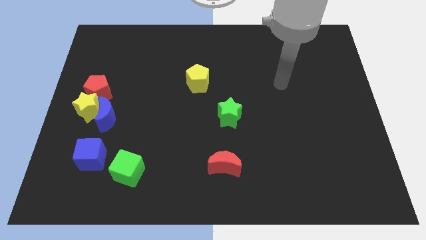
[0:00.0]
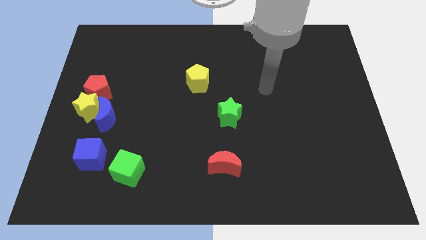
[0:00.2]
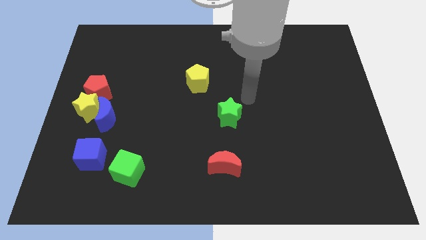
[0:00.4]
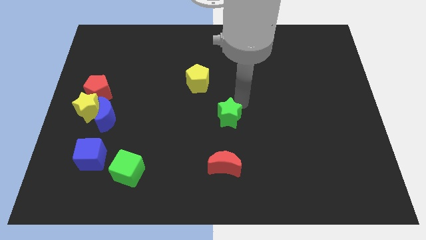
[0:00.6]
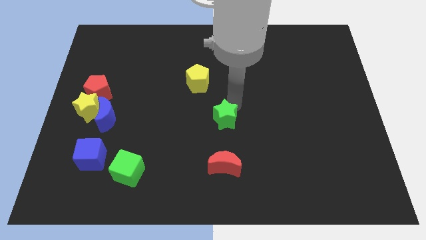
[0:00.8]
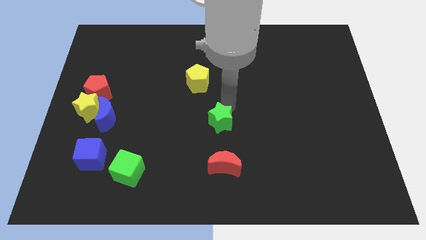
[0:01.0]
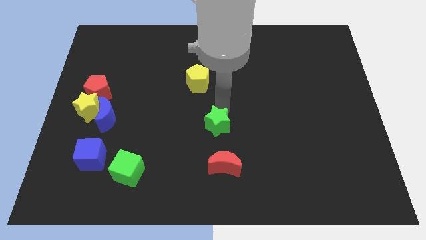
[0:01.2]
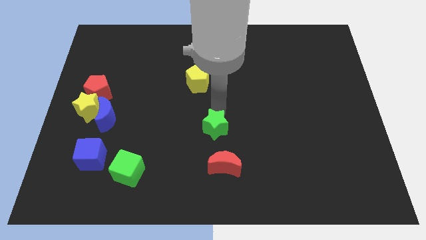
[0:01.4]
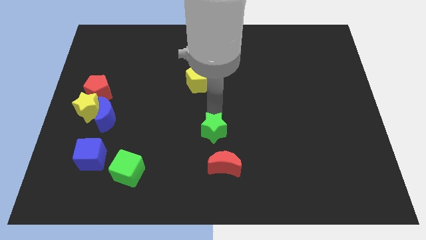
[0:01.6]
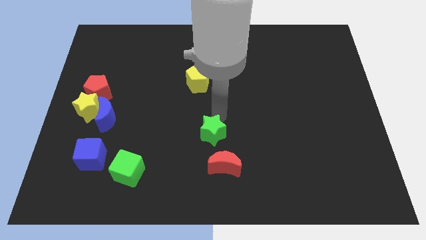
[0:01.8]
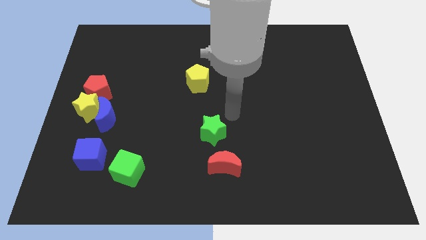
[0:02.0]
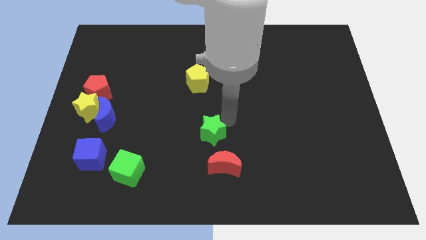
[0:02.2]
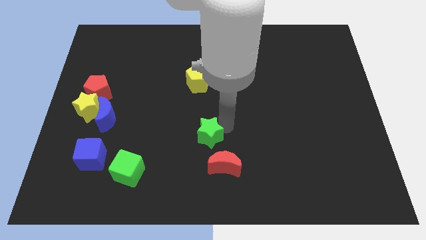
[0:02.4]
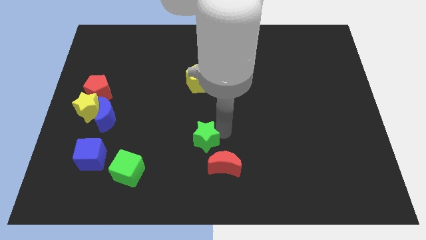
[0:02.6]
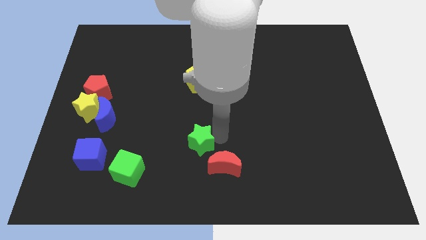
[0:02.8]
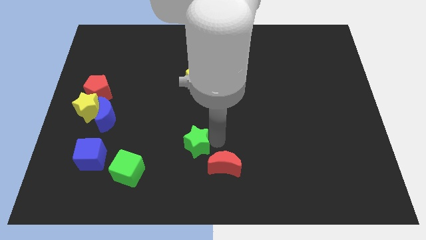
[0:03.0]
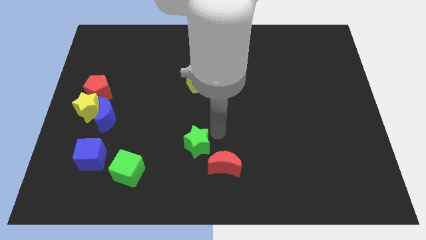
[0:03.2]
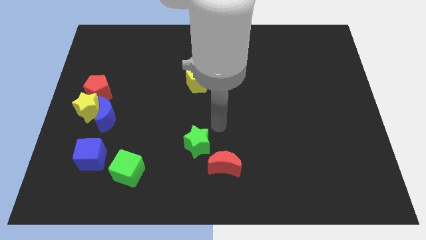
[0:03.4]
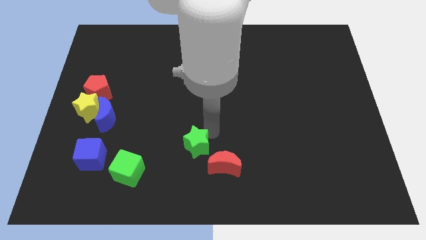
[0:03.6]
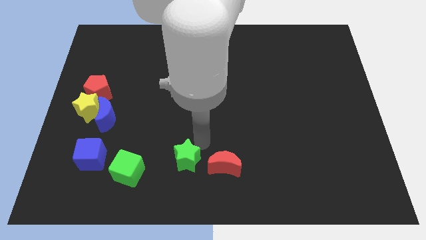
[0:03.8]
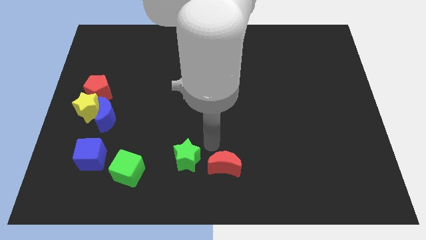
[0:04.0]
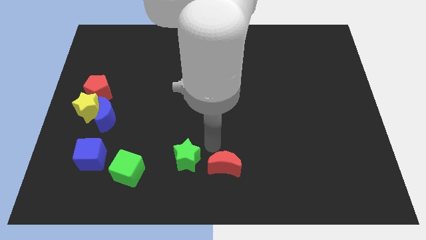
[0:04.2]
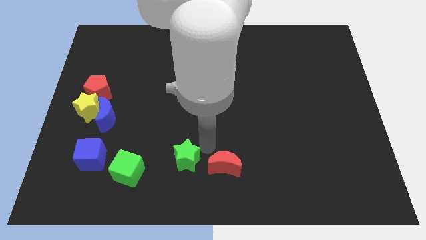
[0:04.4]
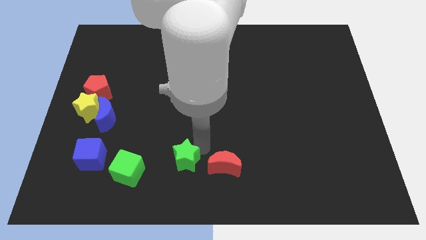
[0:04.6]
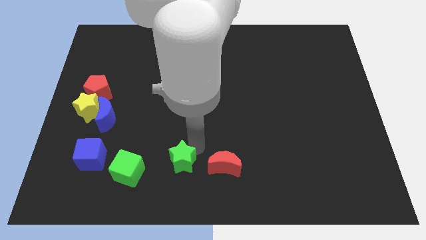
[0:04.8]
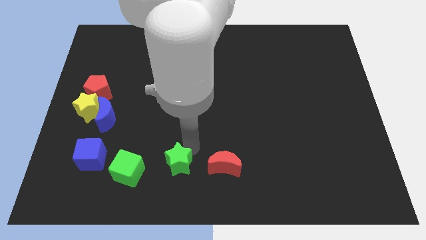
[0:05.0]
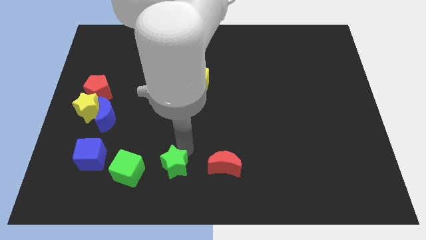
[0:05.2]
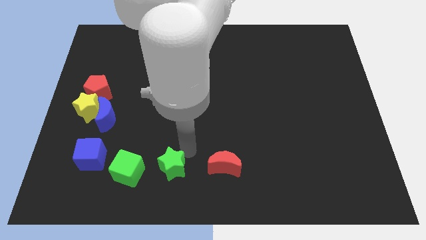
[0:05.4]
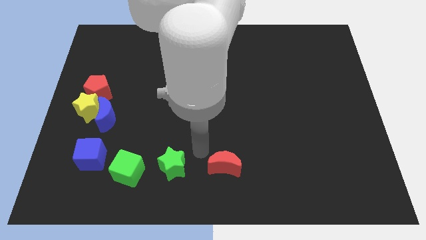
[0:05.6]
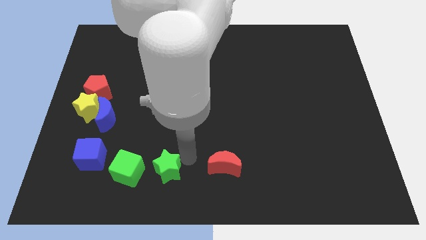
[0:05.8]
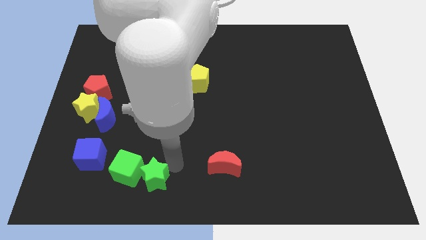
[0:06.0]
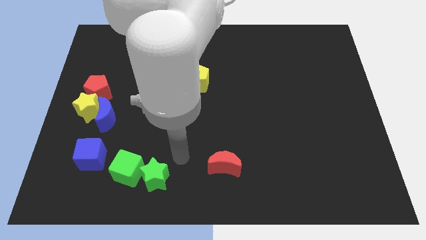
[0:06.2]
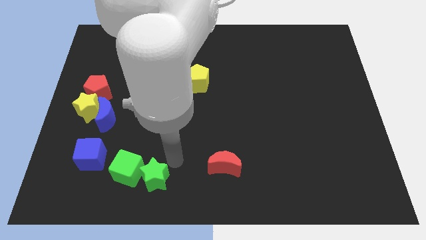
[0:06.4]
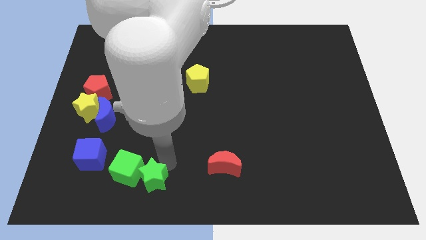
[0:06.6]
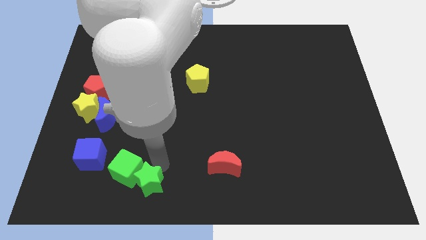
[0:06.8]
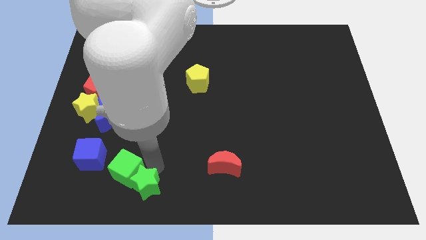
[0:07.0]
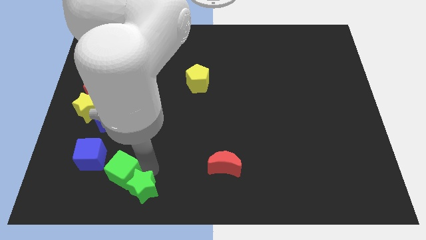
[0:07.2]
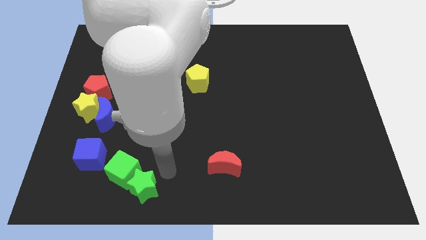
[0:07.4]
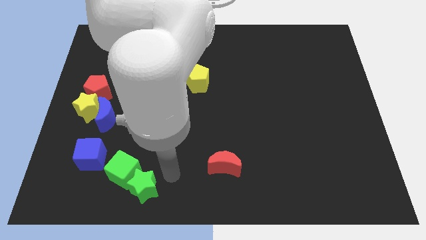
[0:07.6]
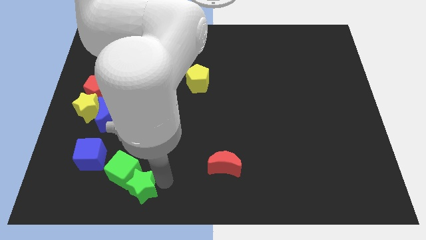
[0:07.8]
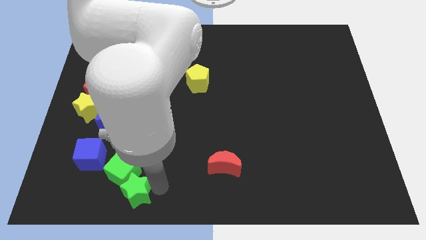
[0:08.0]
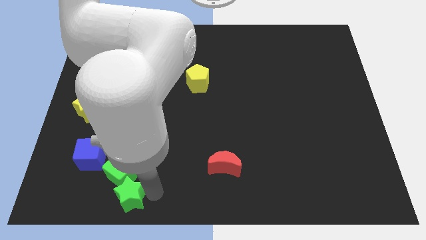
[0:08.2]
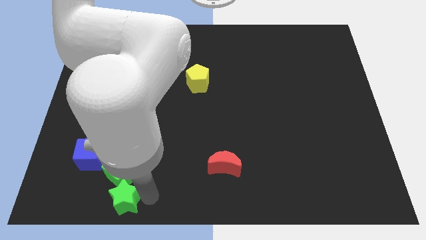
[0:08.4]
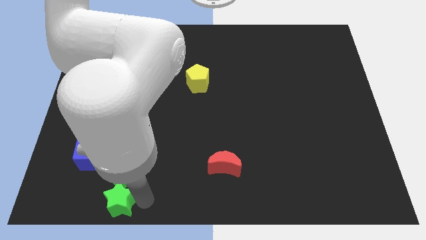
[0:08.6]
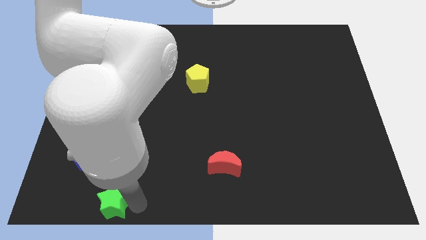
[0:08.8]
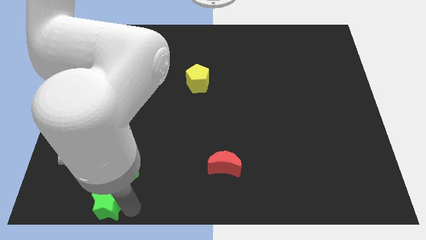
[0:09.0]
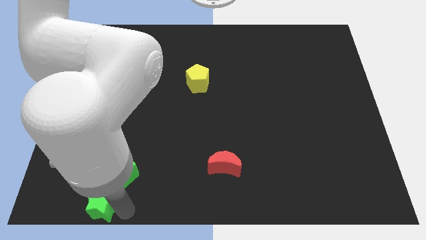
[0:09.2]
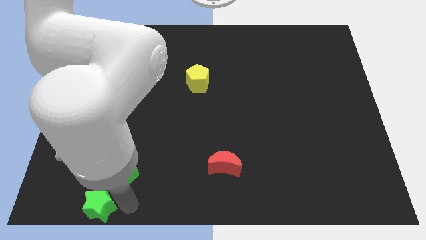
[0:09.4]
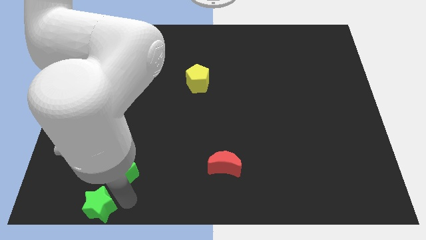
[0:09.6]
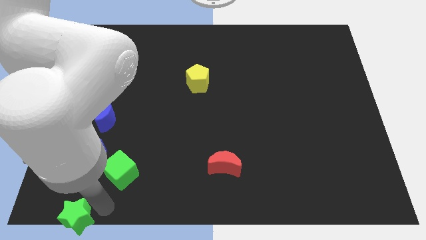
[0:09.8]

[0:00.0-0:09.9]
slide the green star to the lower left corner

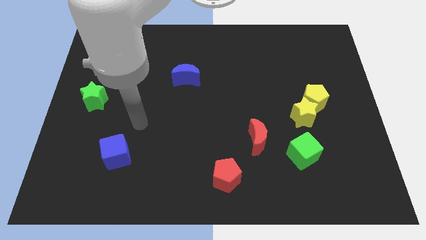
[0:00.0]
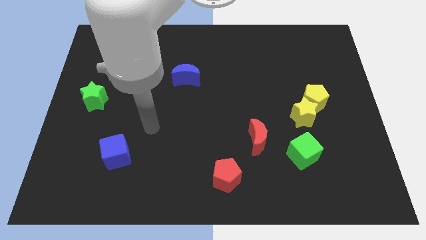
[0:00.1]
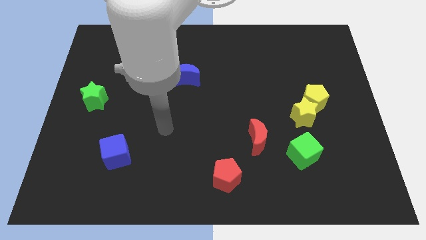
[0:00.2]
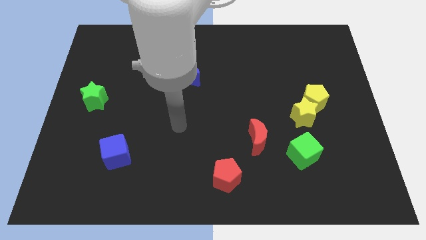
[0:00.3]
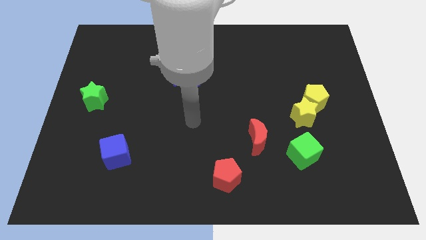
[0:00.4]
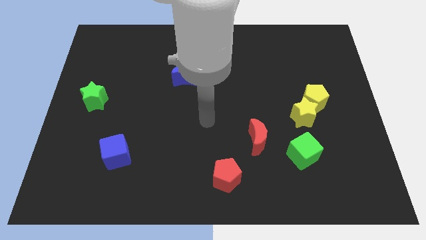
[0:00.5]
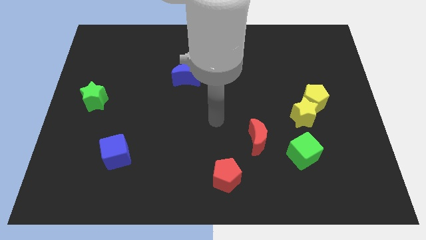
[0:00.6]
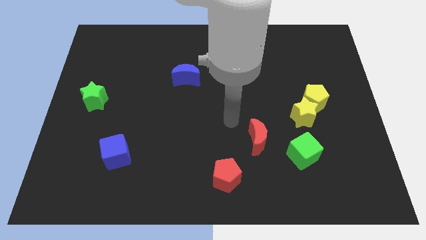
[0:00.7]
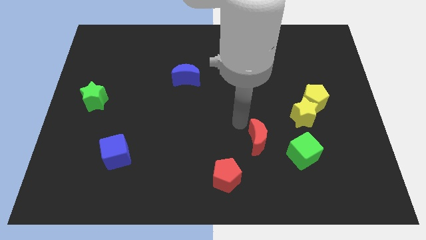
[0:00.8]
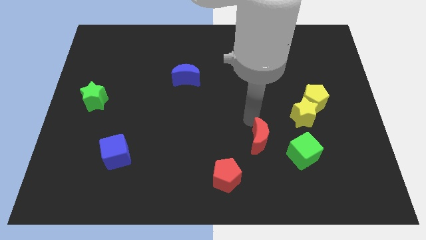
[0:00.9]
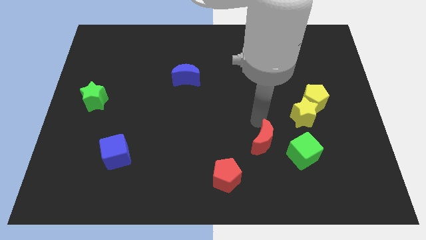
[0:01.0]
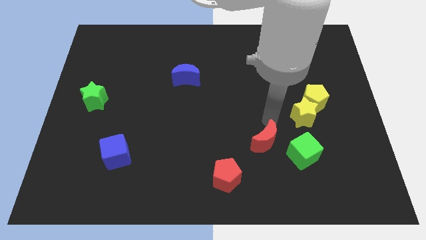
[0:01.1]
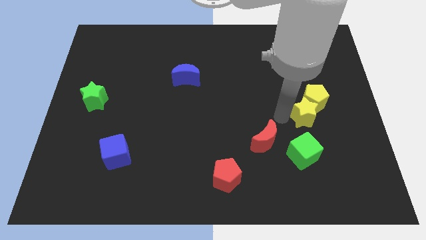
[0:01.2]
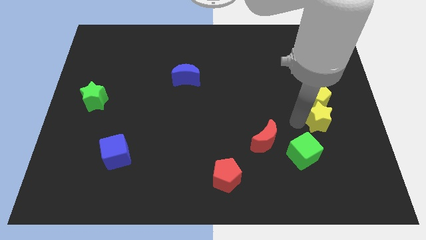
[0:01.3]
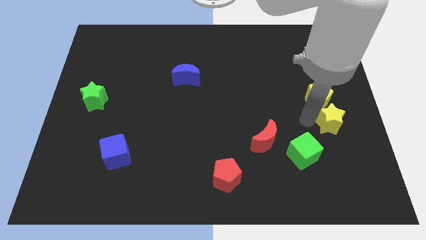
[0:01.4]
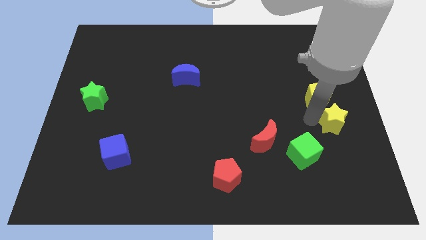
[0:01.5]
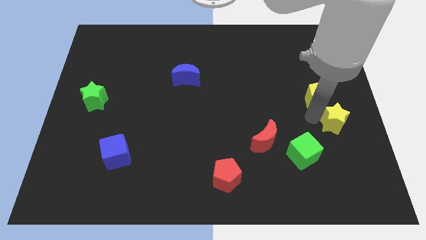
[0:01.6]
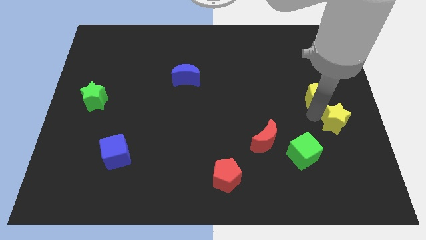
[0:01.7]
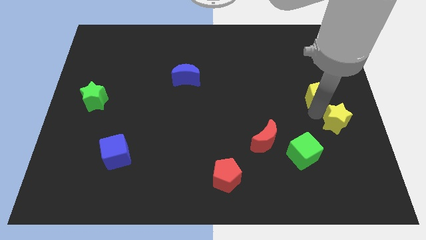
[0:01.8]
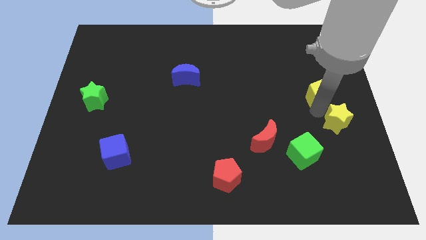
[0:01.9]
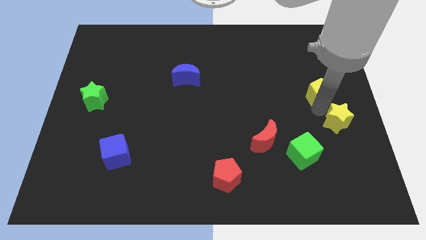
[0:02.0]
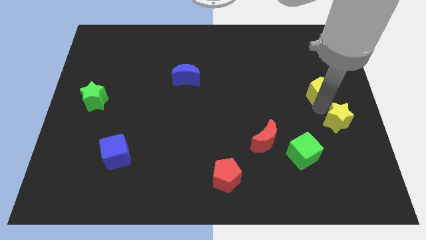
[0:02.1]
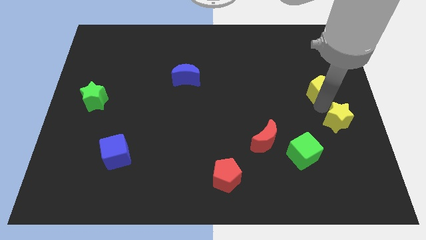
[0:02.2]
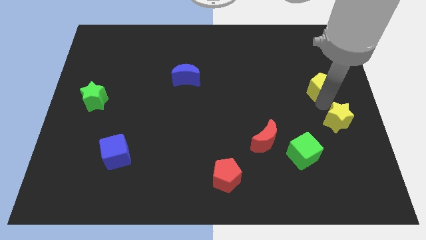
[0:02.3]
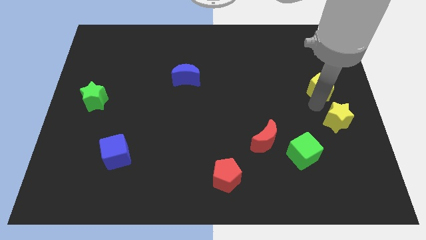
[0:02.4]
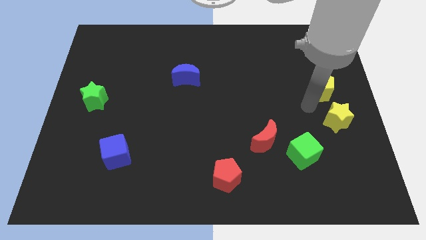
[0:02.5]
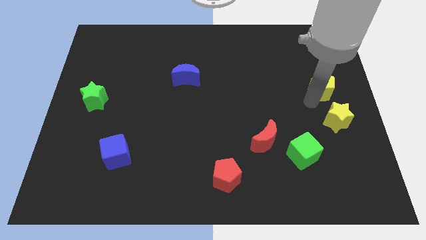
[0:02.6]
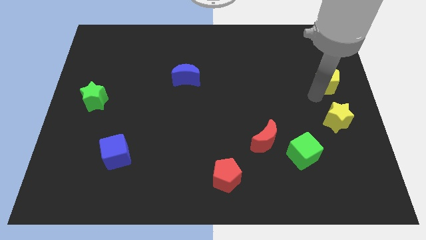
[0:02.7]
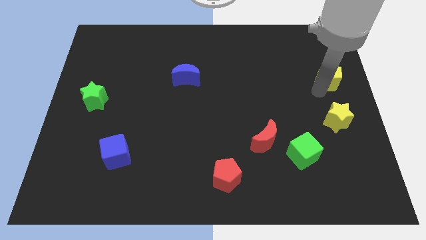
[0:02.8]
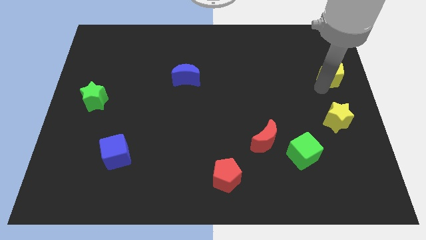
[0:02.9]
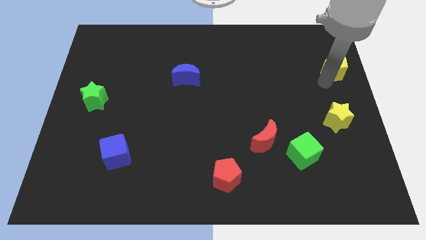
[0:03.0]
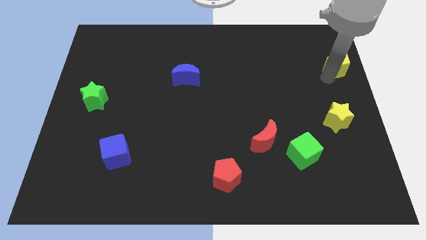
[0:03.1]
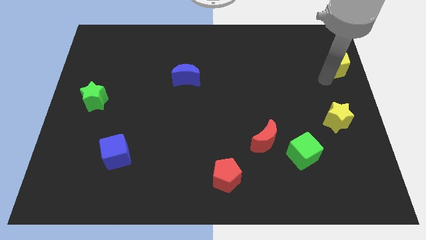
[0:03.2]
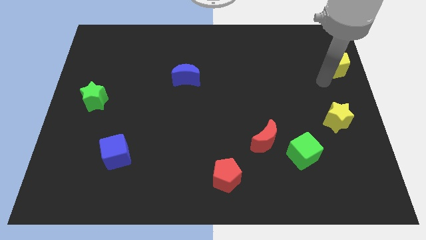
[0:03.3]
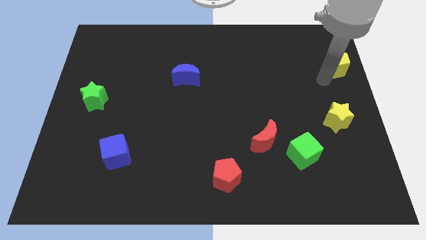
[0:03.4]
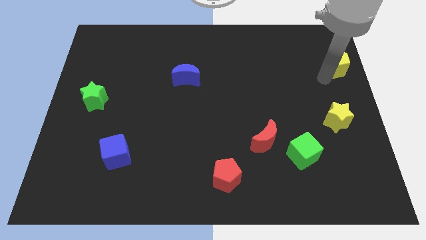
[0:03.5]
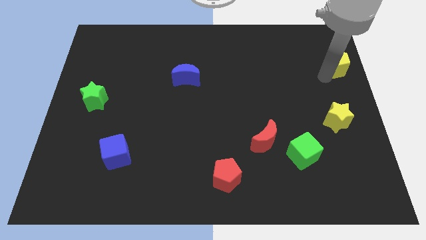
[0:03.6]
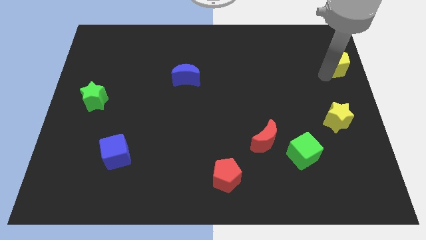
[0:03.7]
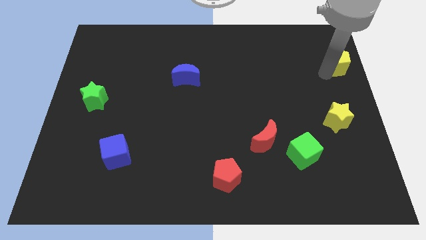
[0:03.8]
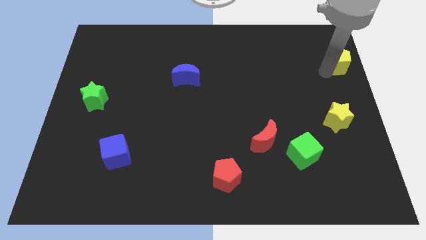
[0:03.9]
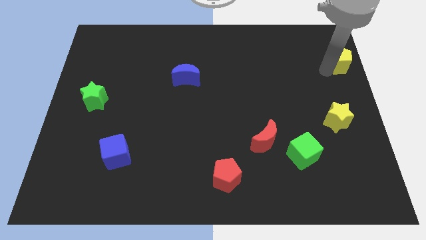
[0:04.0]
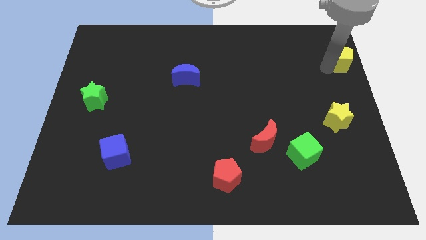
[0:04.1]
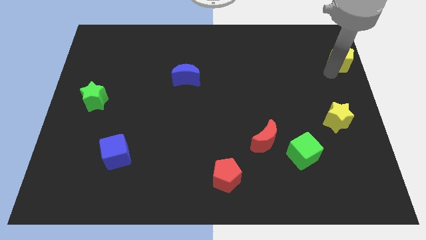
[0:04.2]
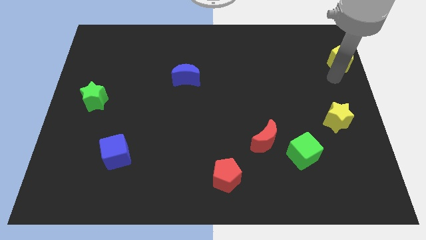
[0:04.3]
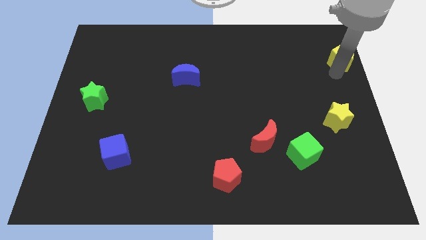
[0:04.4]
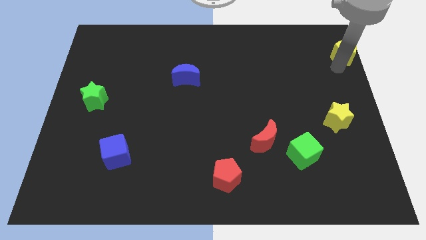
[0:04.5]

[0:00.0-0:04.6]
push the yellow pentagon to the top right corner
